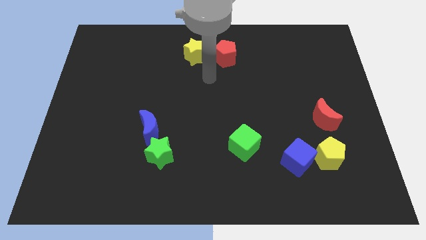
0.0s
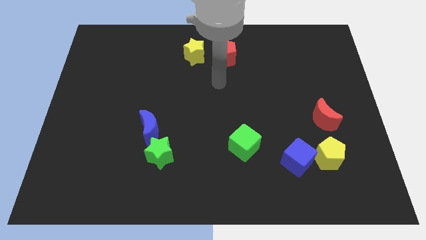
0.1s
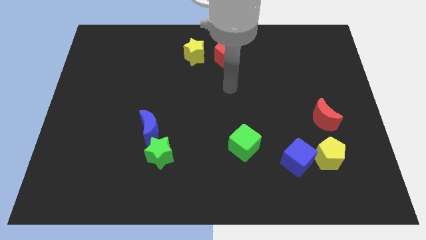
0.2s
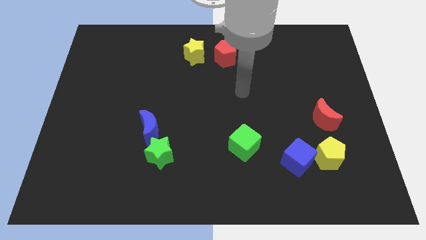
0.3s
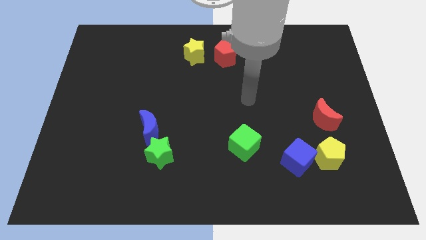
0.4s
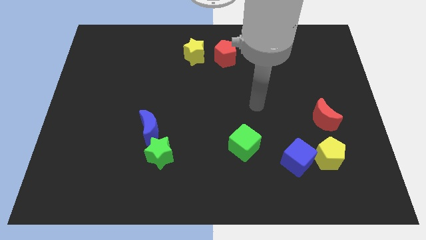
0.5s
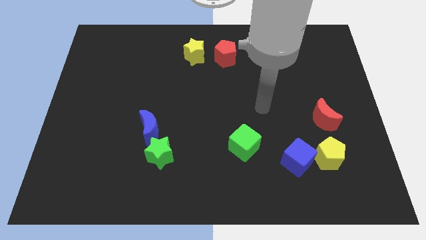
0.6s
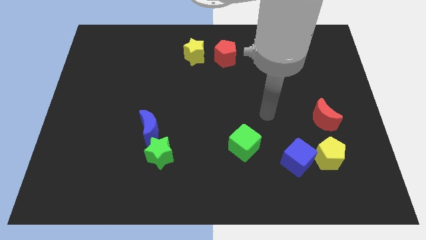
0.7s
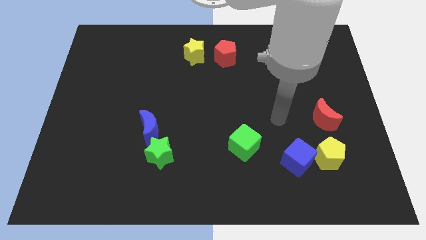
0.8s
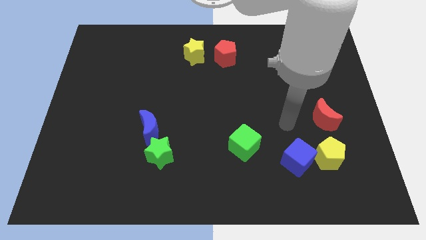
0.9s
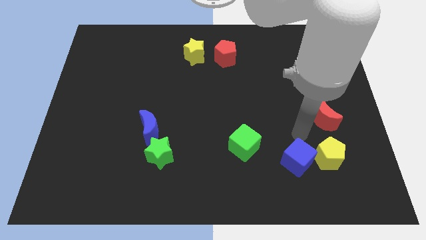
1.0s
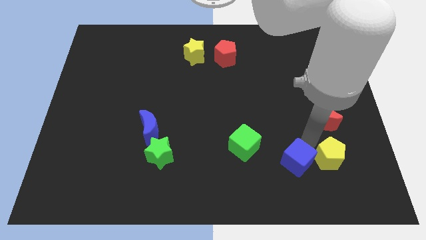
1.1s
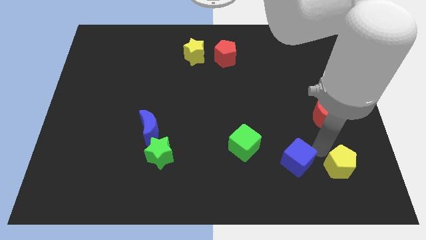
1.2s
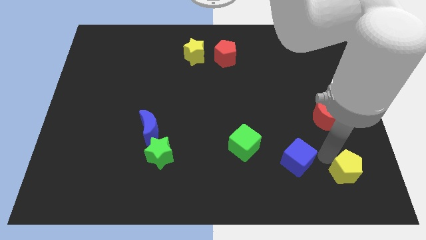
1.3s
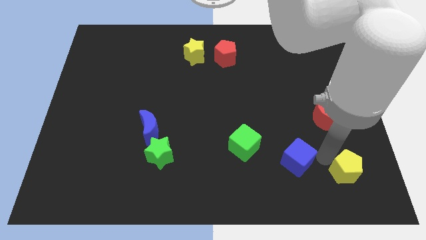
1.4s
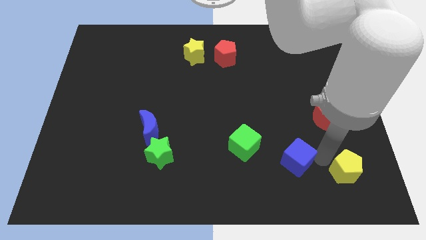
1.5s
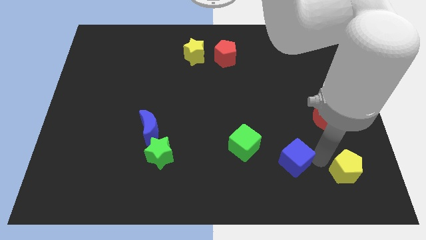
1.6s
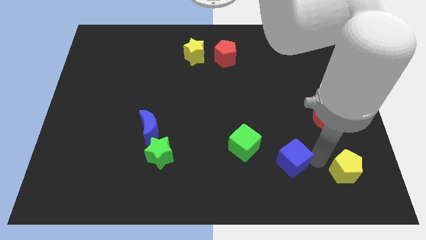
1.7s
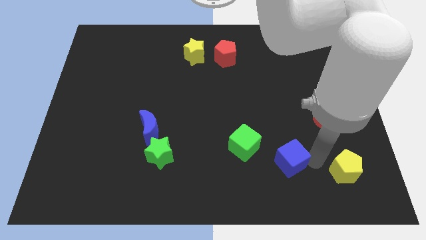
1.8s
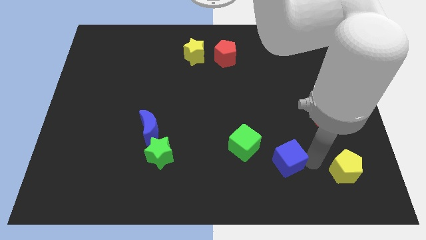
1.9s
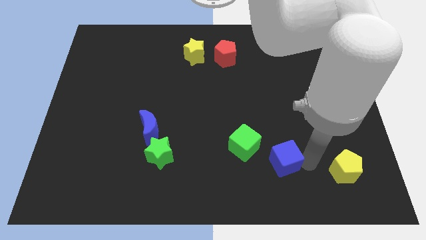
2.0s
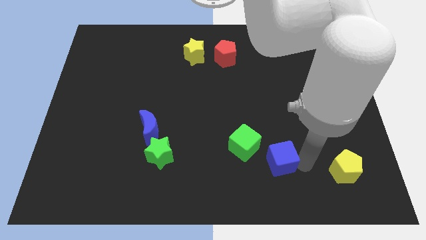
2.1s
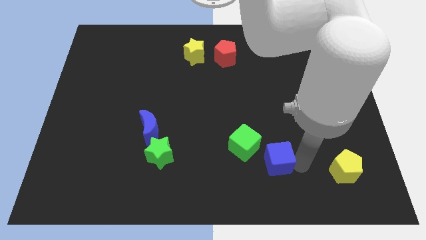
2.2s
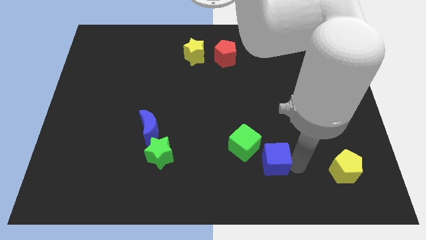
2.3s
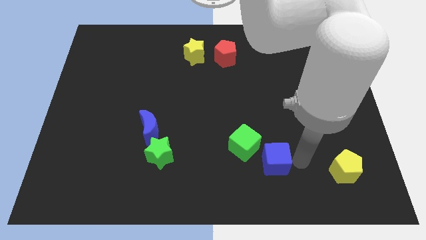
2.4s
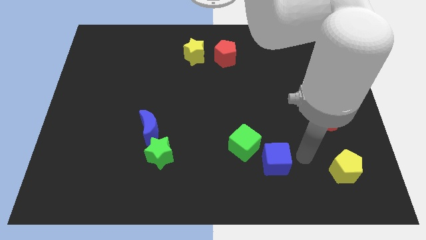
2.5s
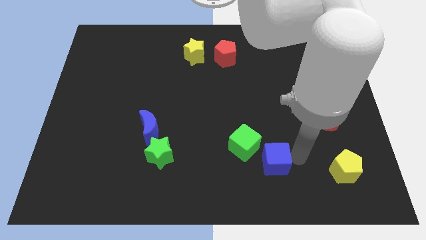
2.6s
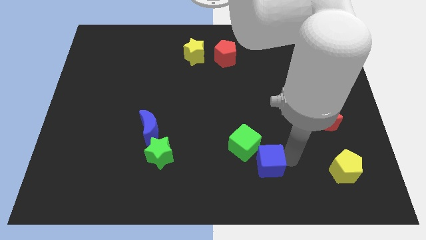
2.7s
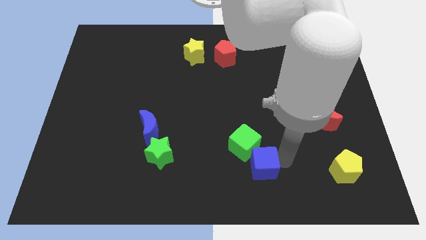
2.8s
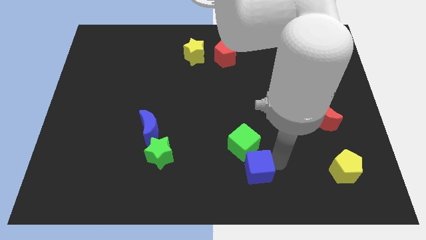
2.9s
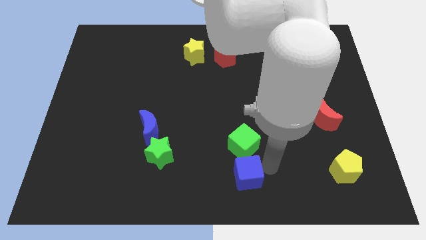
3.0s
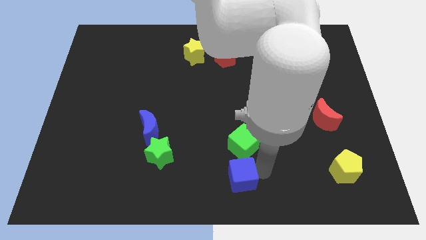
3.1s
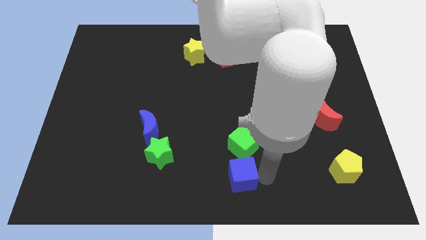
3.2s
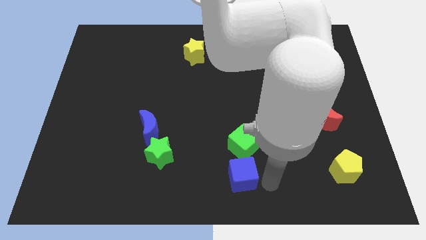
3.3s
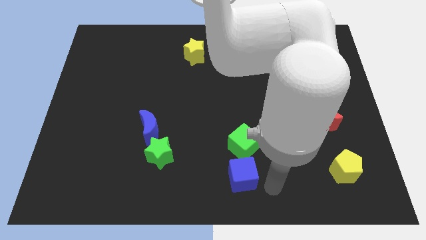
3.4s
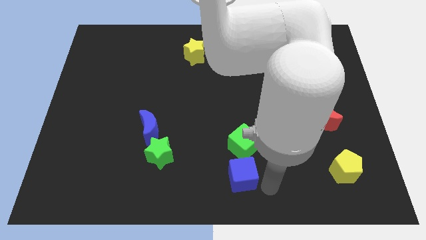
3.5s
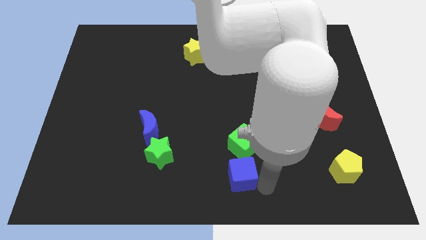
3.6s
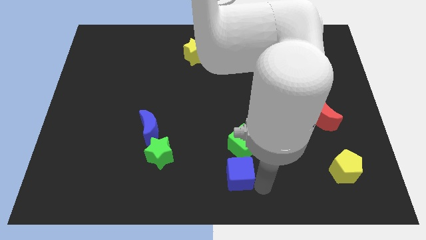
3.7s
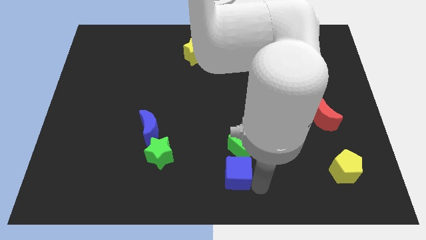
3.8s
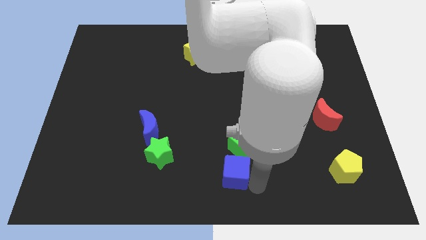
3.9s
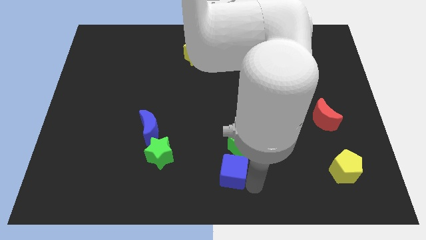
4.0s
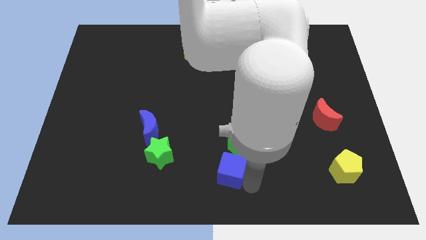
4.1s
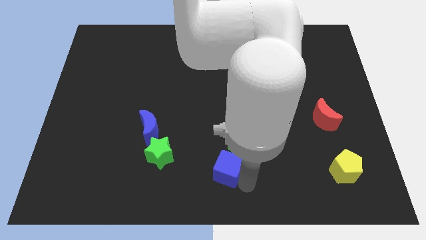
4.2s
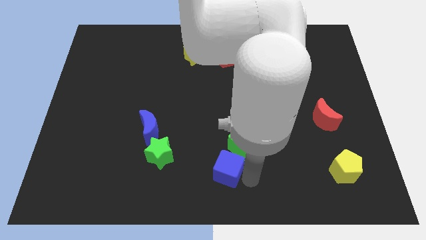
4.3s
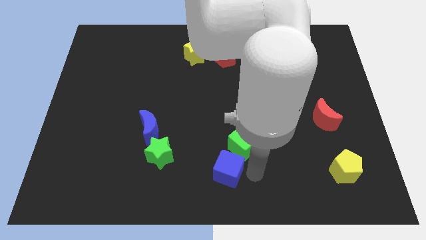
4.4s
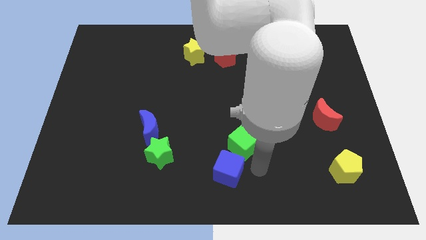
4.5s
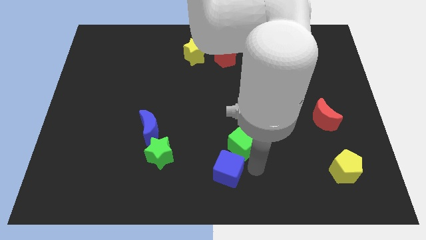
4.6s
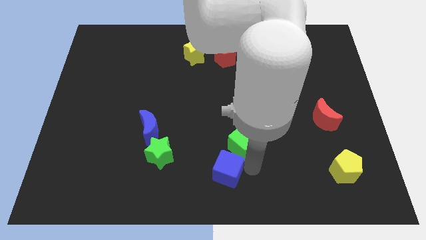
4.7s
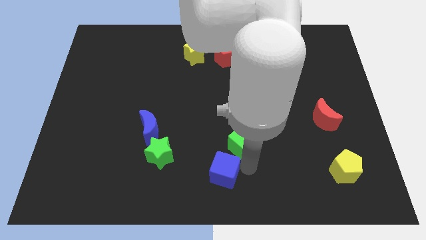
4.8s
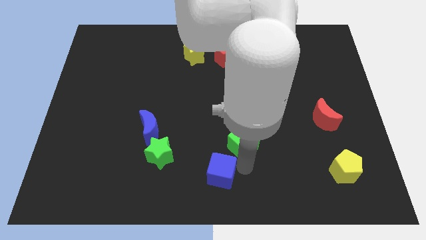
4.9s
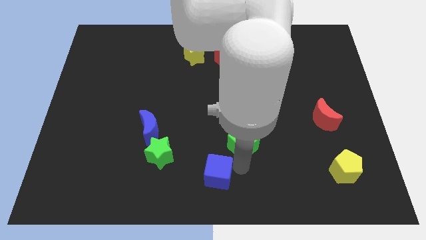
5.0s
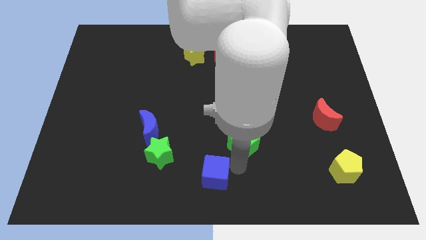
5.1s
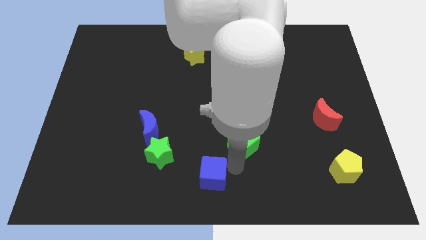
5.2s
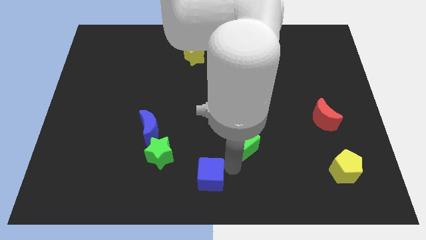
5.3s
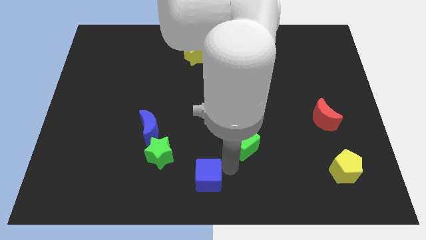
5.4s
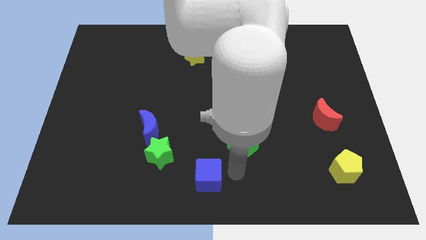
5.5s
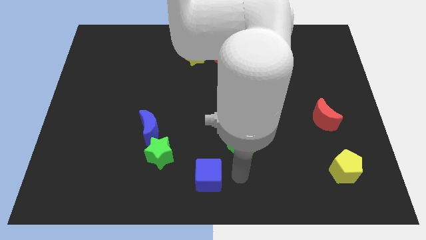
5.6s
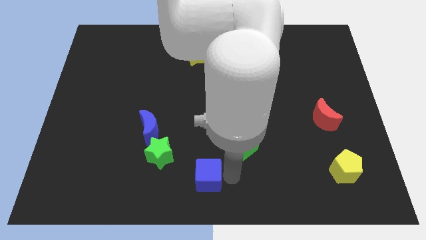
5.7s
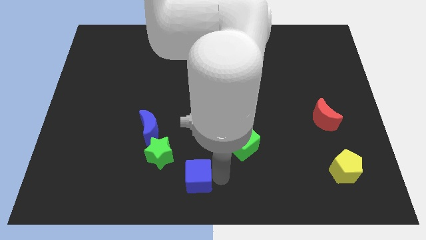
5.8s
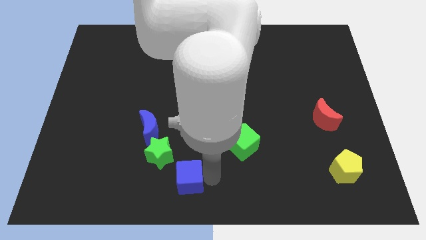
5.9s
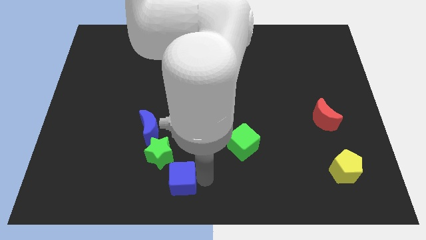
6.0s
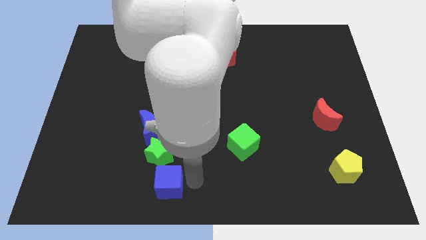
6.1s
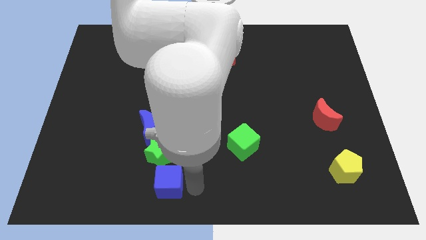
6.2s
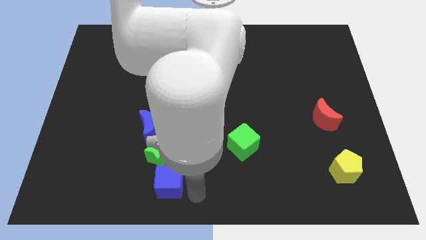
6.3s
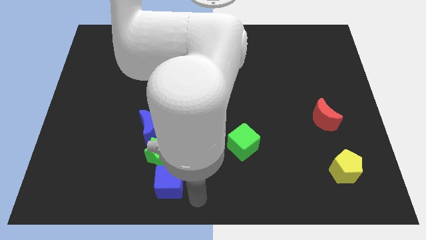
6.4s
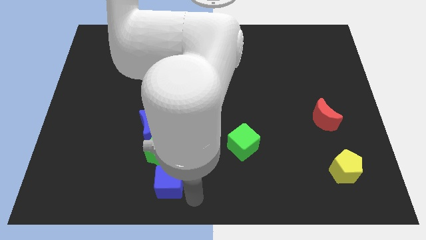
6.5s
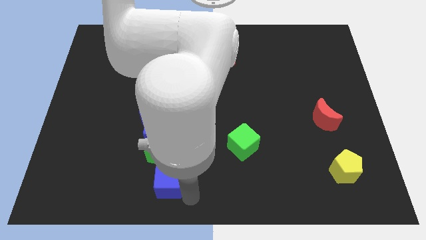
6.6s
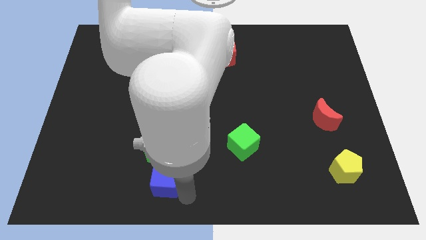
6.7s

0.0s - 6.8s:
push the blue cube below the blue moon

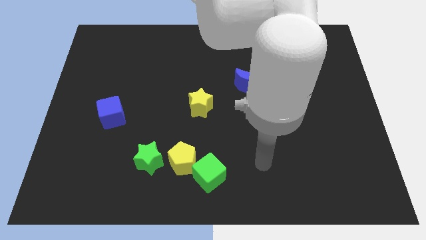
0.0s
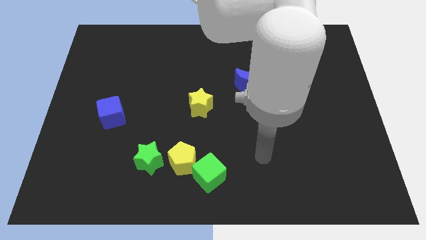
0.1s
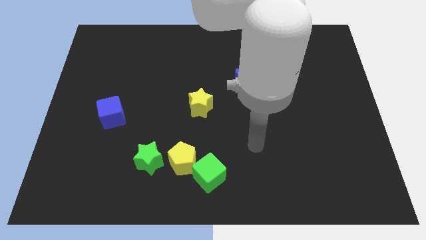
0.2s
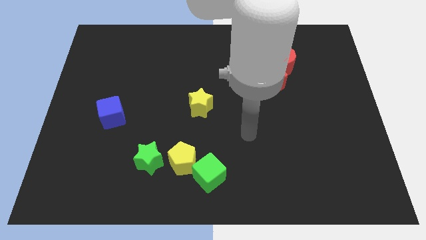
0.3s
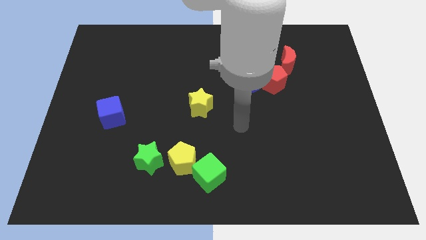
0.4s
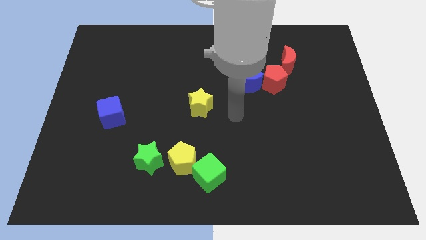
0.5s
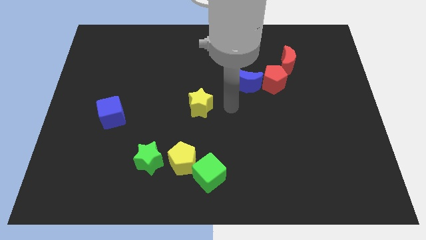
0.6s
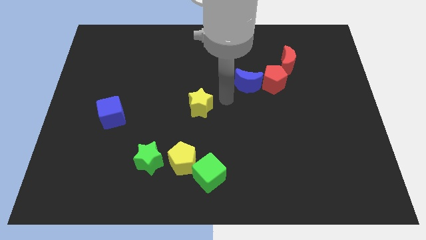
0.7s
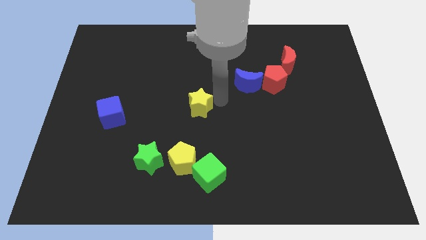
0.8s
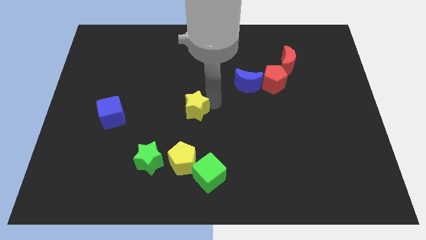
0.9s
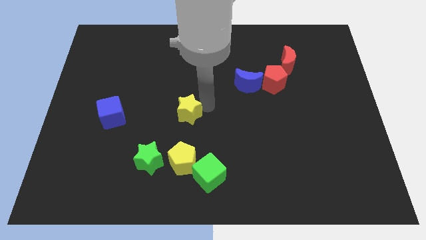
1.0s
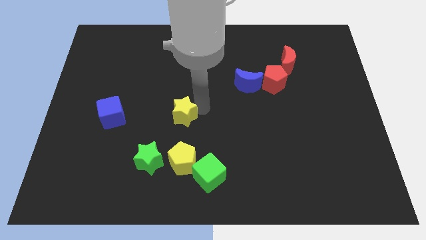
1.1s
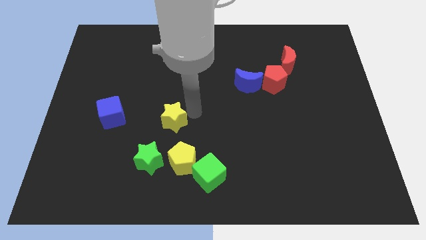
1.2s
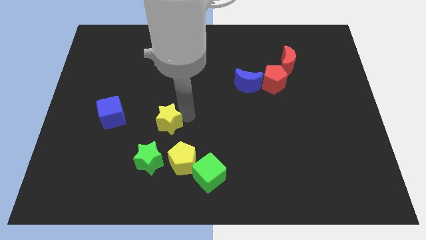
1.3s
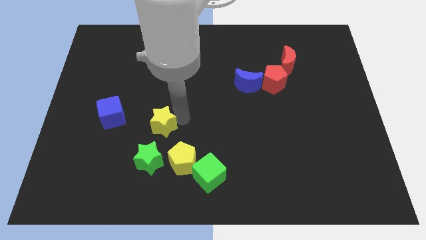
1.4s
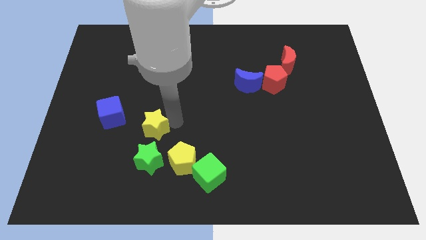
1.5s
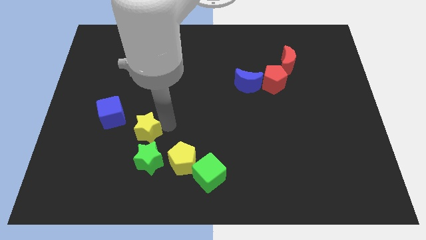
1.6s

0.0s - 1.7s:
slide the yellow star diagonally down and to the right of the blue cube
